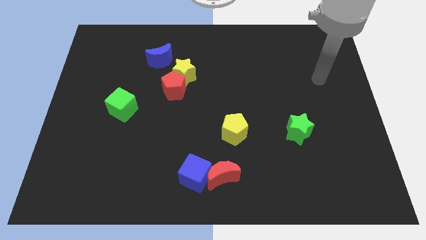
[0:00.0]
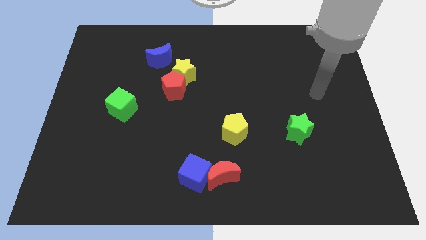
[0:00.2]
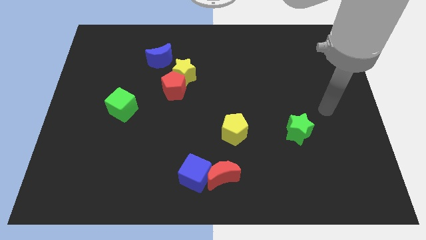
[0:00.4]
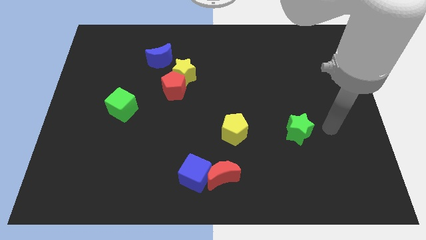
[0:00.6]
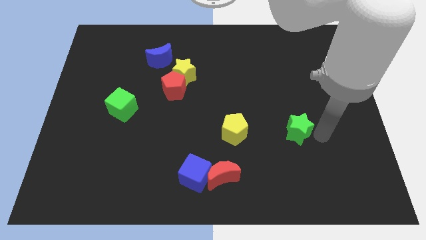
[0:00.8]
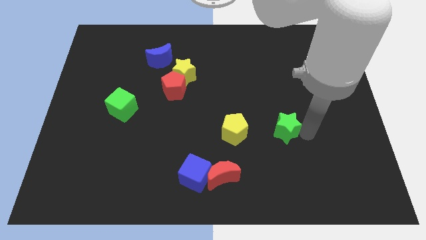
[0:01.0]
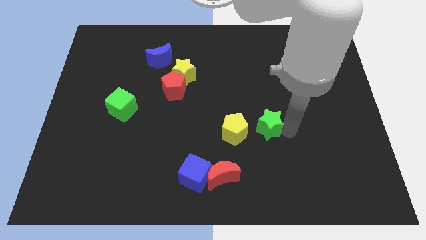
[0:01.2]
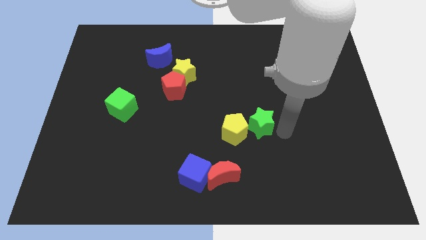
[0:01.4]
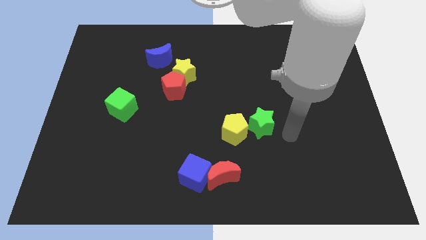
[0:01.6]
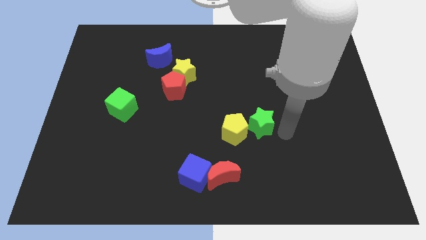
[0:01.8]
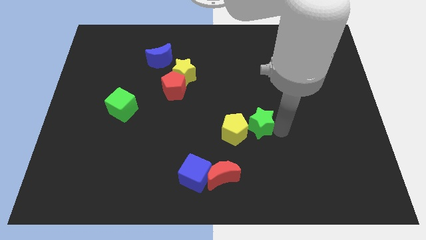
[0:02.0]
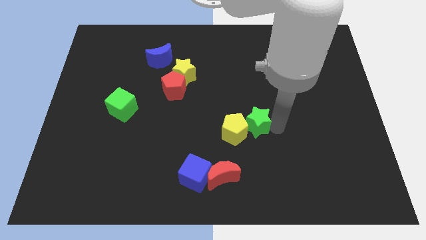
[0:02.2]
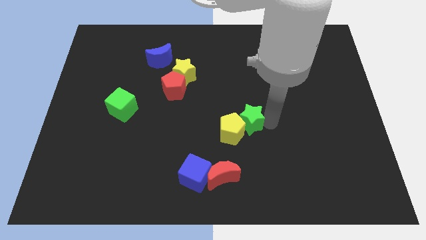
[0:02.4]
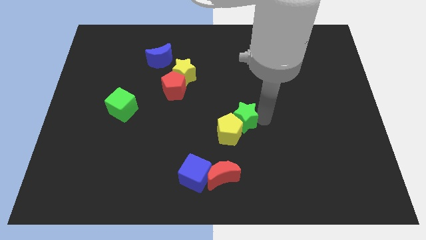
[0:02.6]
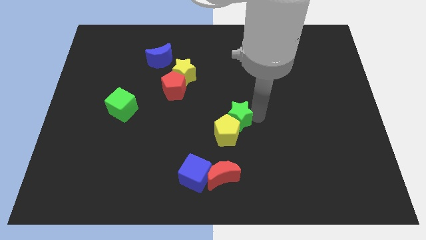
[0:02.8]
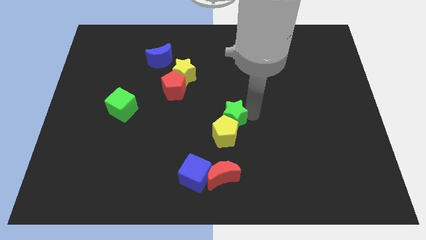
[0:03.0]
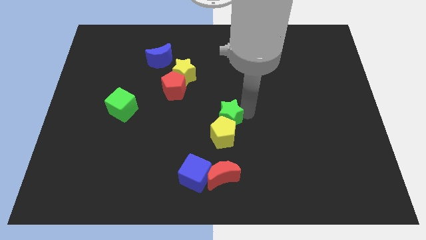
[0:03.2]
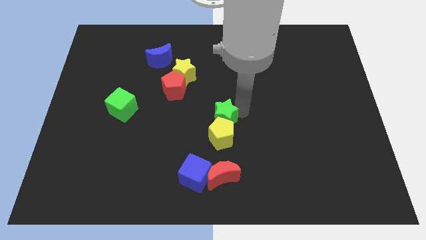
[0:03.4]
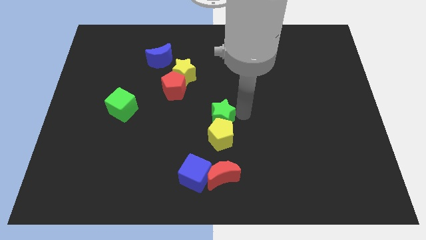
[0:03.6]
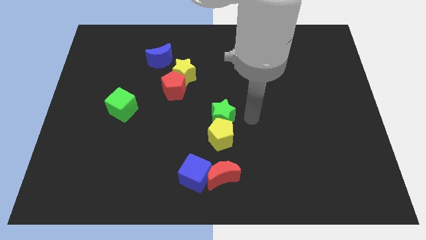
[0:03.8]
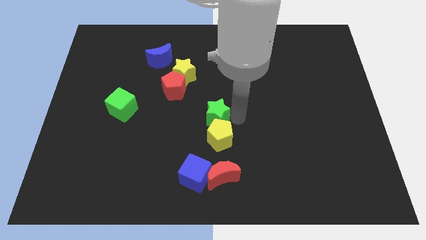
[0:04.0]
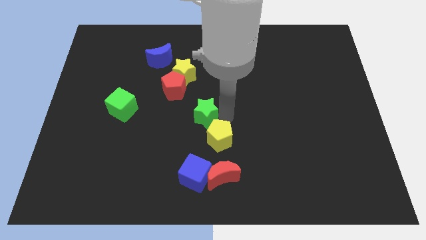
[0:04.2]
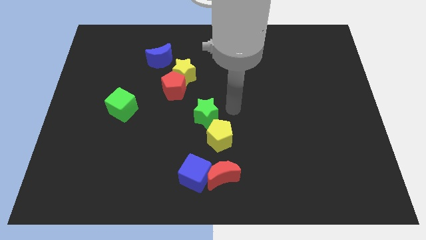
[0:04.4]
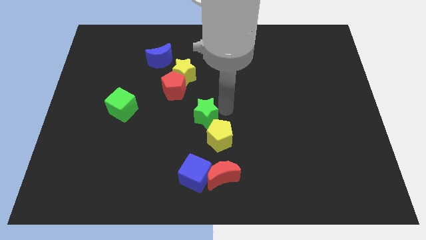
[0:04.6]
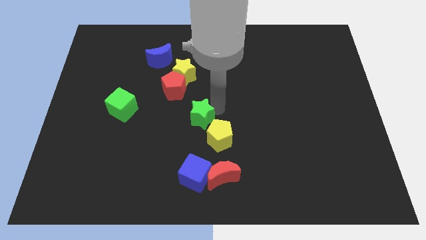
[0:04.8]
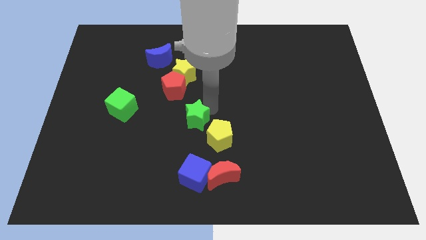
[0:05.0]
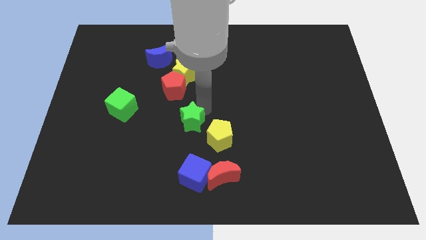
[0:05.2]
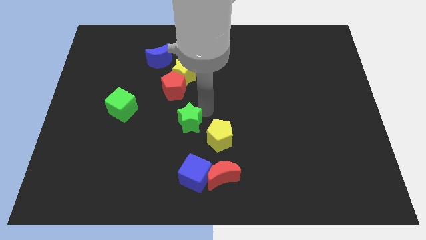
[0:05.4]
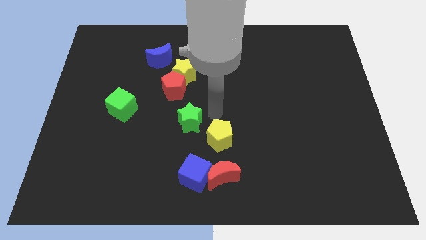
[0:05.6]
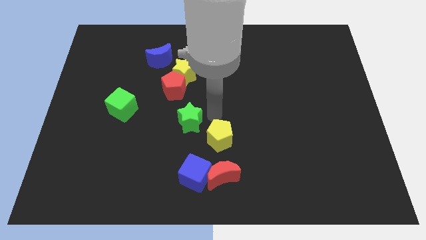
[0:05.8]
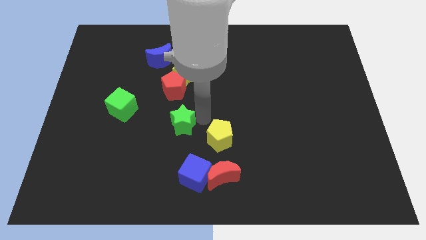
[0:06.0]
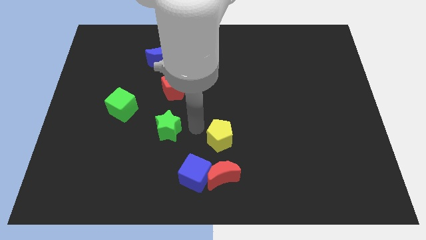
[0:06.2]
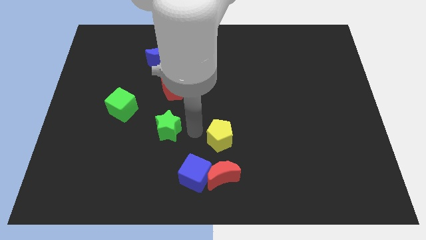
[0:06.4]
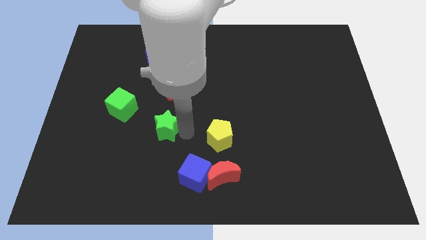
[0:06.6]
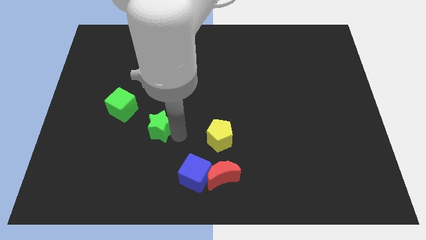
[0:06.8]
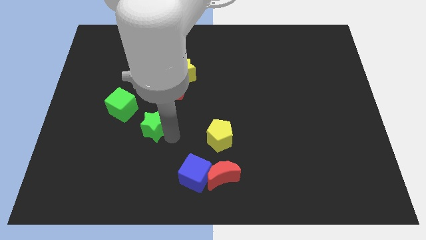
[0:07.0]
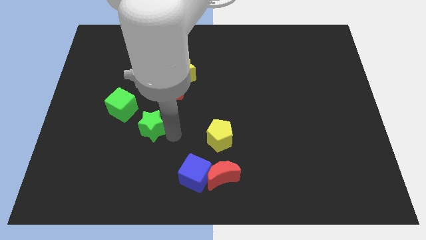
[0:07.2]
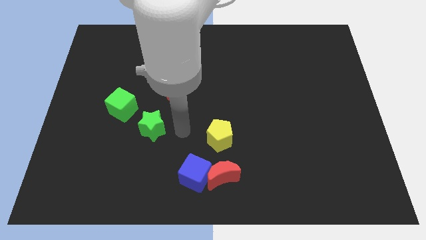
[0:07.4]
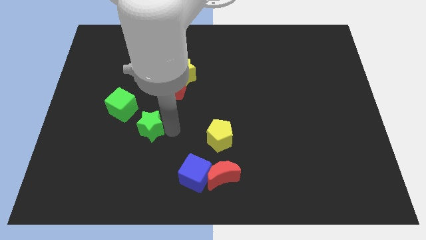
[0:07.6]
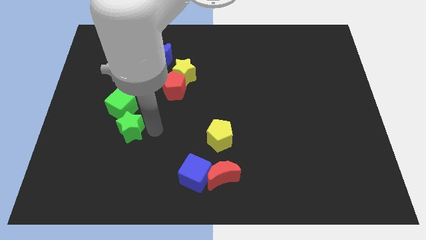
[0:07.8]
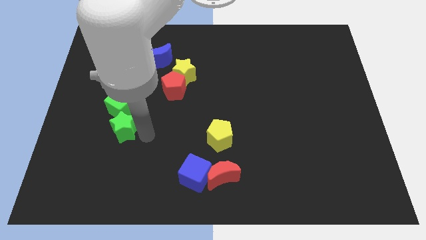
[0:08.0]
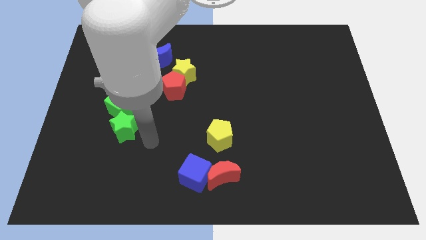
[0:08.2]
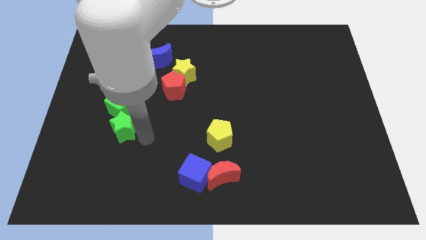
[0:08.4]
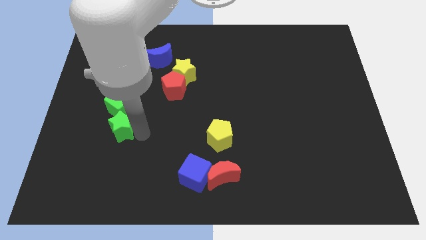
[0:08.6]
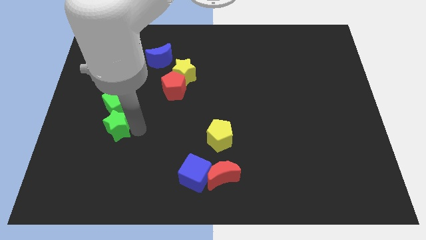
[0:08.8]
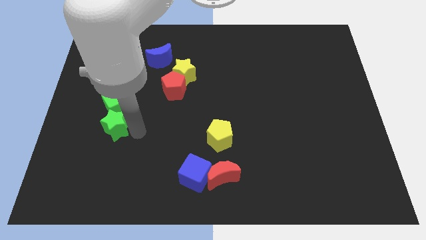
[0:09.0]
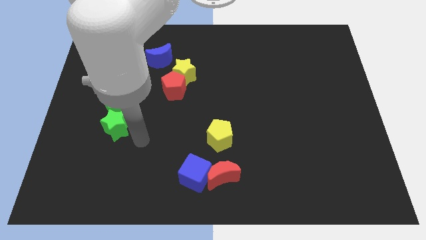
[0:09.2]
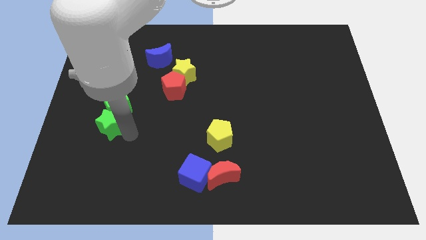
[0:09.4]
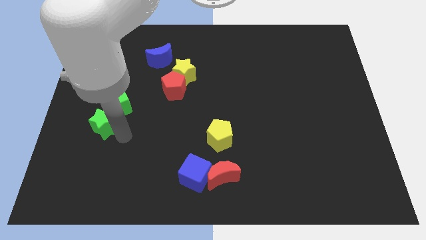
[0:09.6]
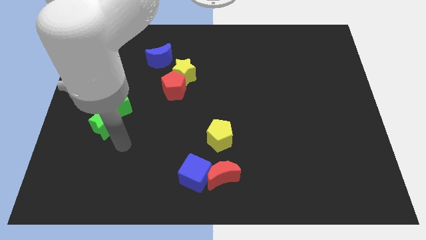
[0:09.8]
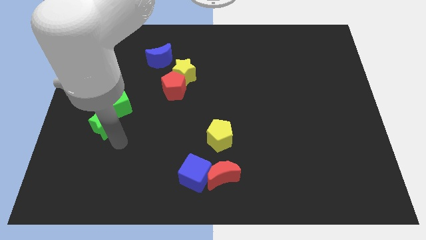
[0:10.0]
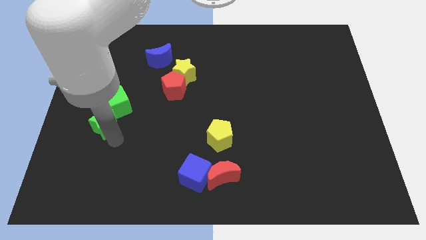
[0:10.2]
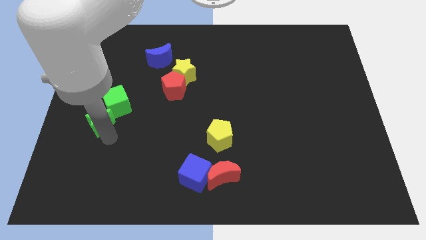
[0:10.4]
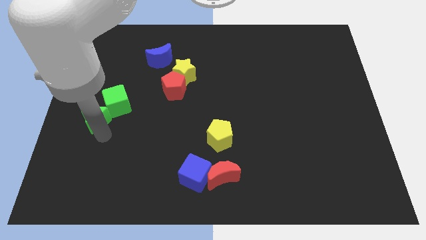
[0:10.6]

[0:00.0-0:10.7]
push the green star to the left side

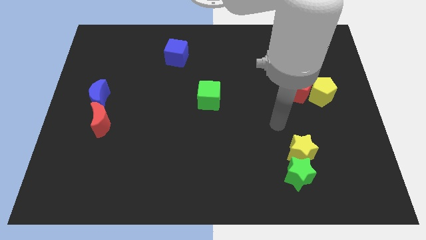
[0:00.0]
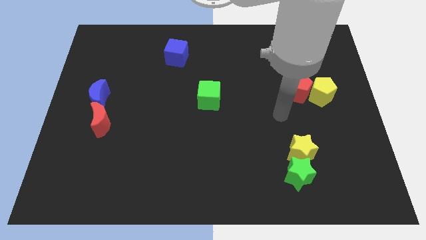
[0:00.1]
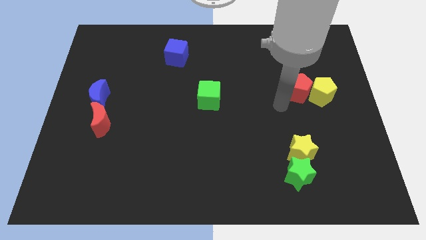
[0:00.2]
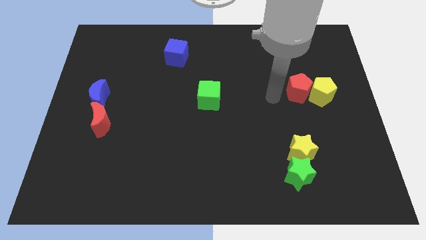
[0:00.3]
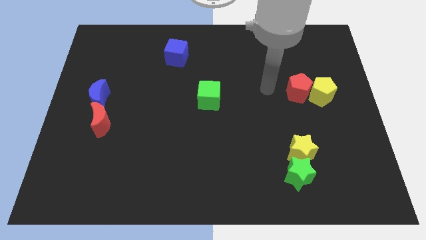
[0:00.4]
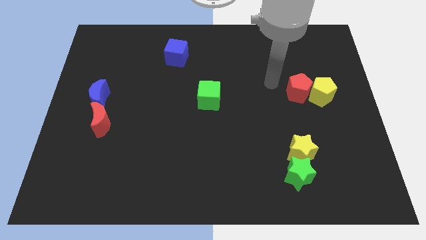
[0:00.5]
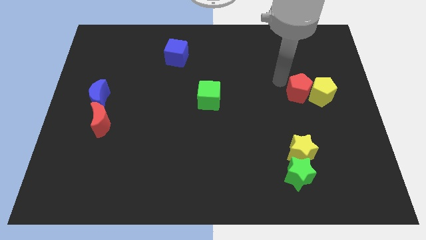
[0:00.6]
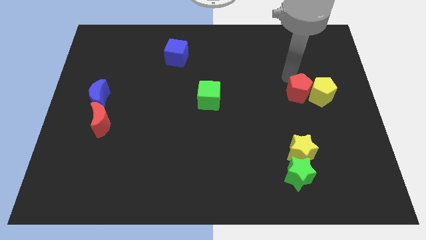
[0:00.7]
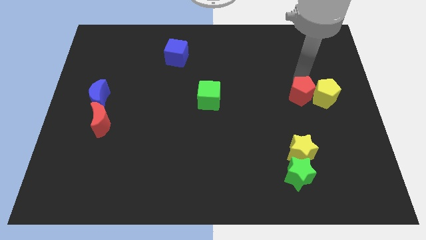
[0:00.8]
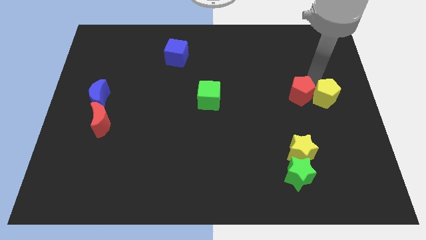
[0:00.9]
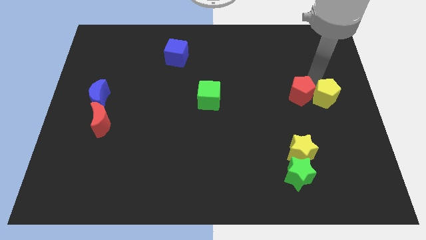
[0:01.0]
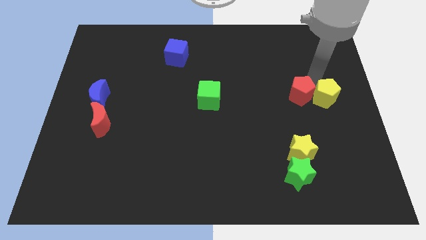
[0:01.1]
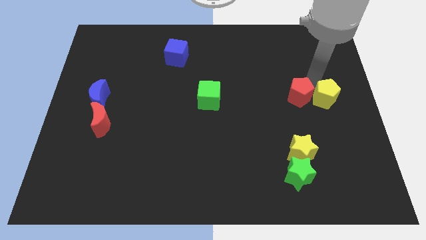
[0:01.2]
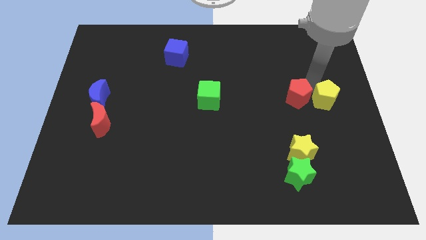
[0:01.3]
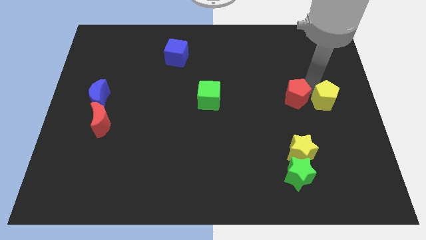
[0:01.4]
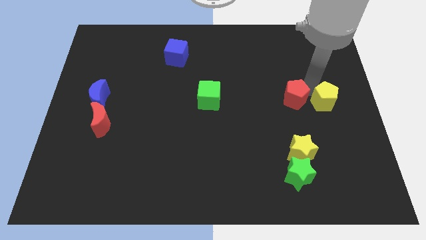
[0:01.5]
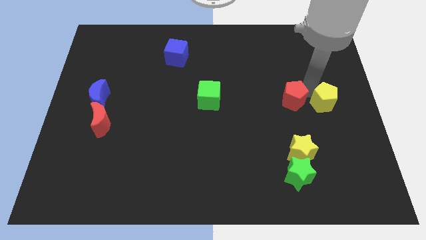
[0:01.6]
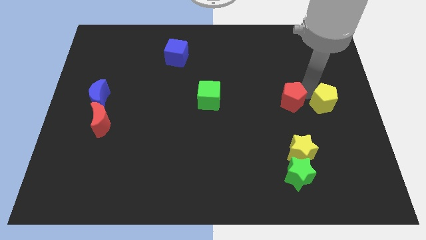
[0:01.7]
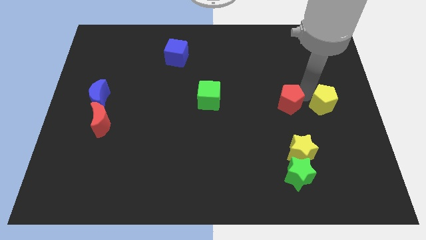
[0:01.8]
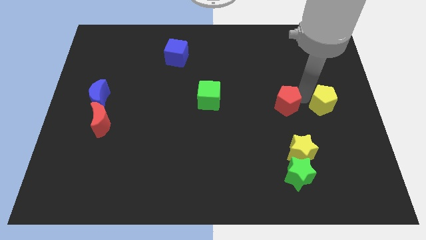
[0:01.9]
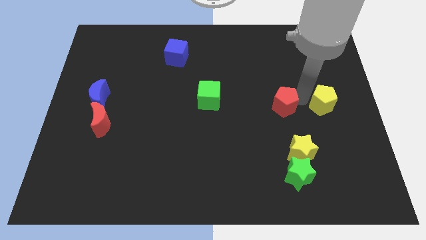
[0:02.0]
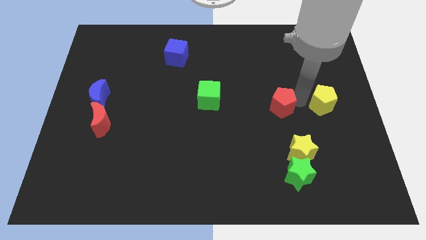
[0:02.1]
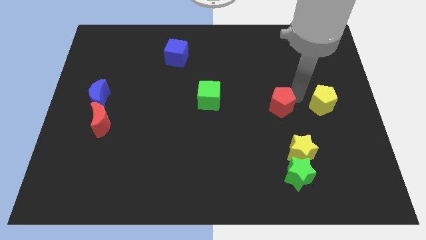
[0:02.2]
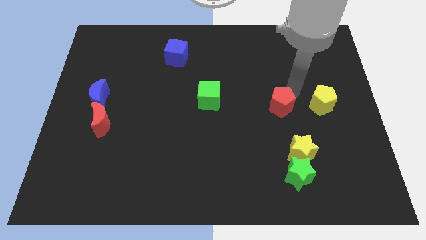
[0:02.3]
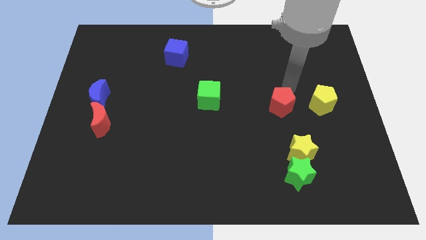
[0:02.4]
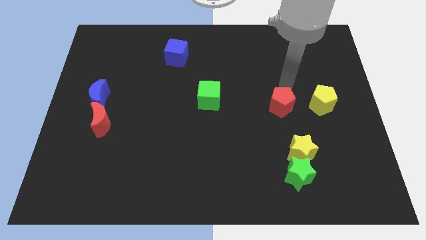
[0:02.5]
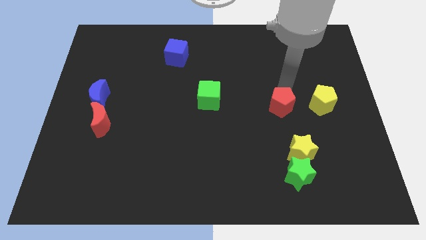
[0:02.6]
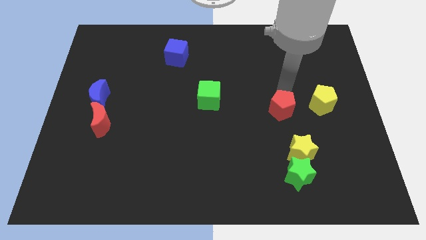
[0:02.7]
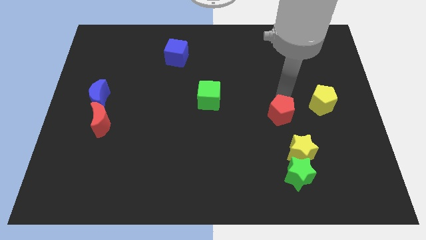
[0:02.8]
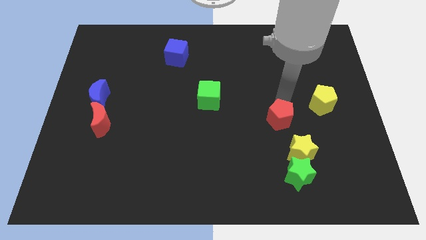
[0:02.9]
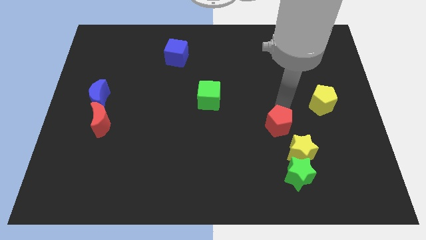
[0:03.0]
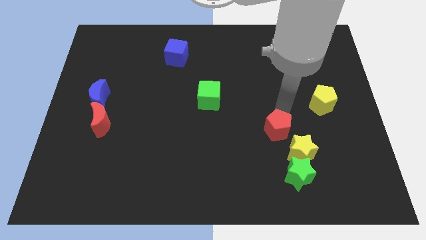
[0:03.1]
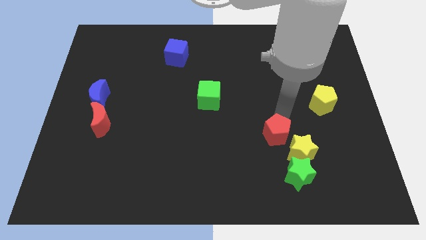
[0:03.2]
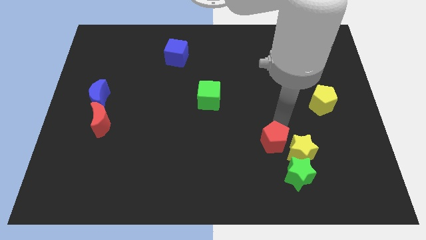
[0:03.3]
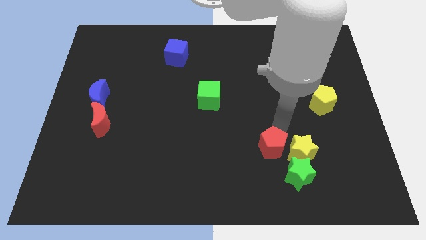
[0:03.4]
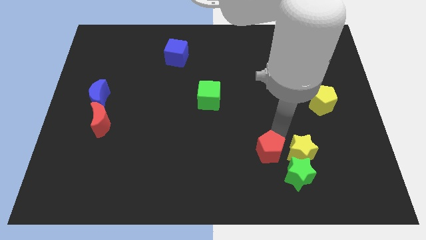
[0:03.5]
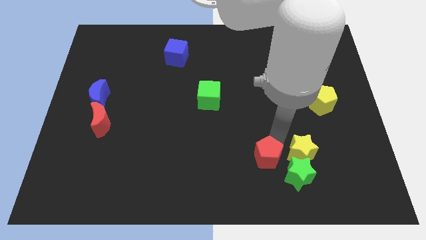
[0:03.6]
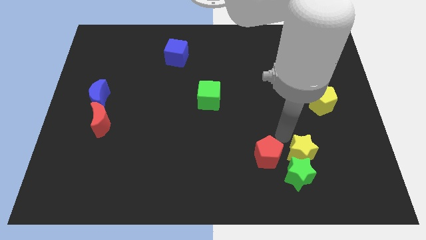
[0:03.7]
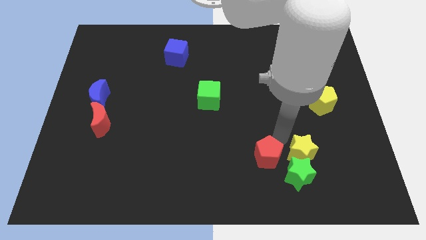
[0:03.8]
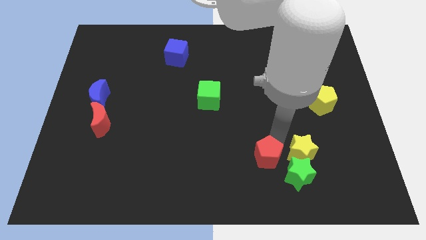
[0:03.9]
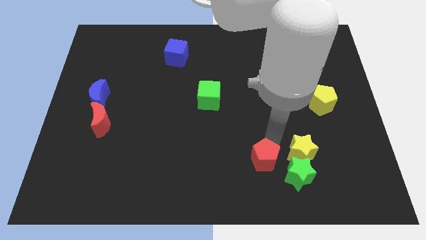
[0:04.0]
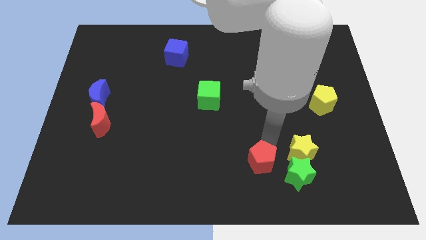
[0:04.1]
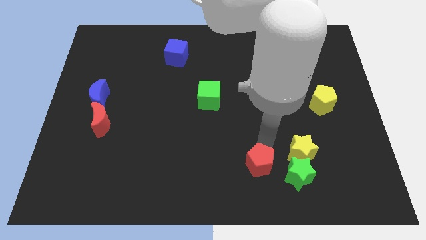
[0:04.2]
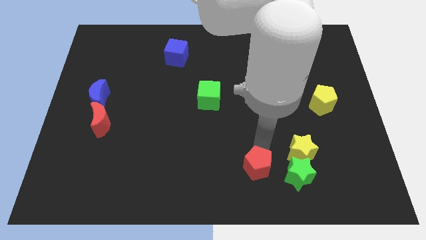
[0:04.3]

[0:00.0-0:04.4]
put the red pentagon to the bottom side
